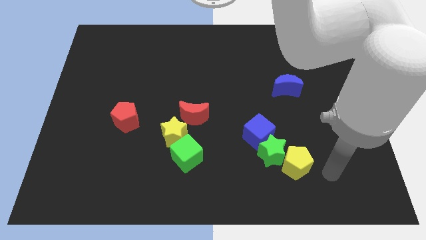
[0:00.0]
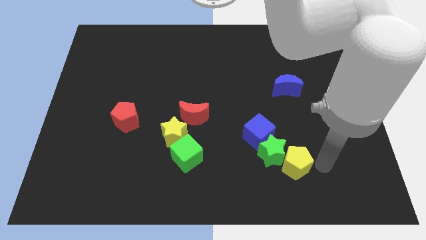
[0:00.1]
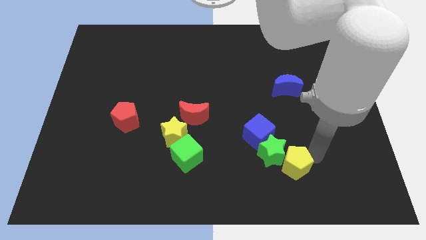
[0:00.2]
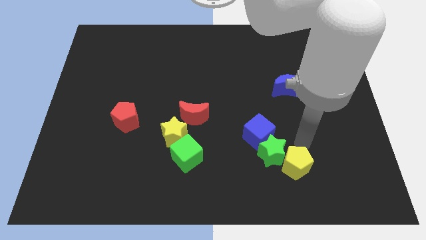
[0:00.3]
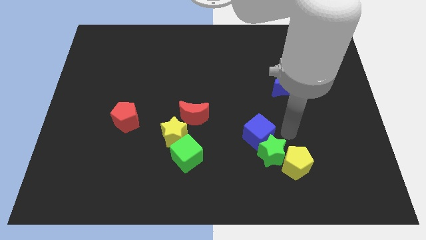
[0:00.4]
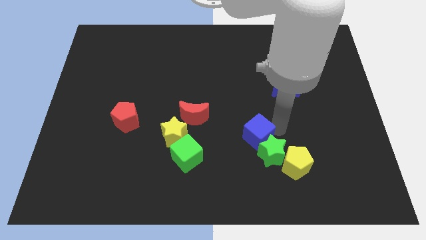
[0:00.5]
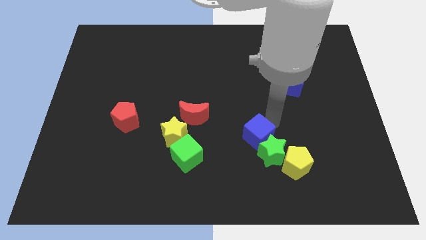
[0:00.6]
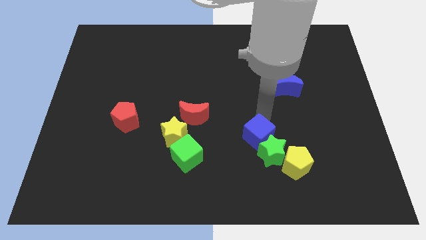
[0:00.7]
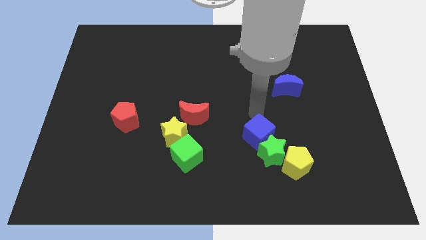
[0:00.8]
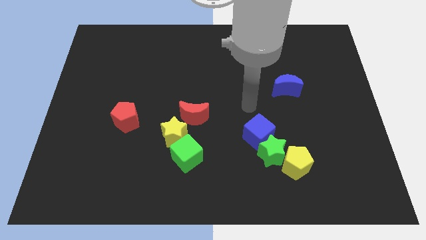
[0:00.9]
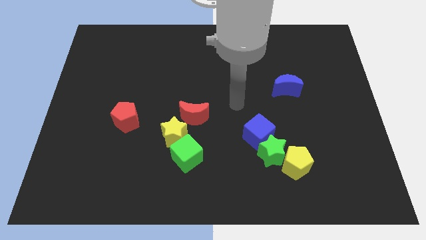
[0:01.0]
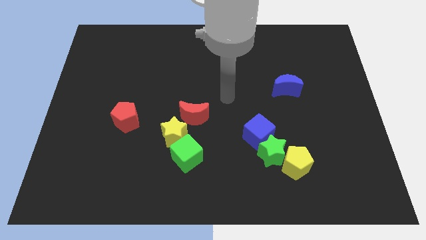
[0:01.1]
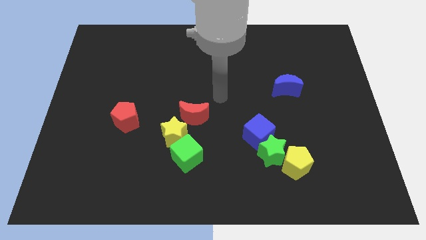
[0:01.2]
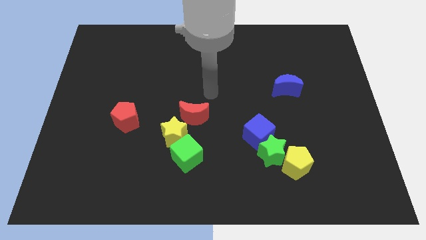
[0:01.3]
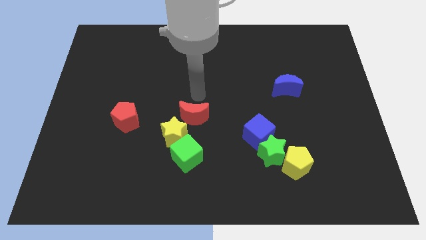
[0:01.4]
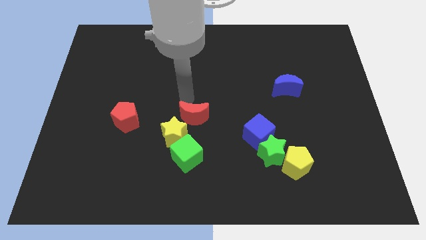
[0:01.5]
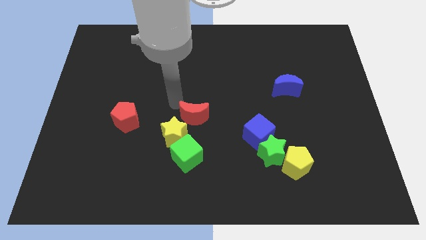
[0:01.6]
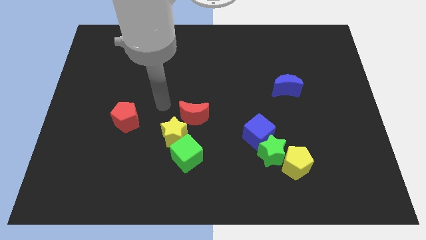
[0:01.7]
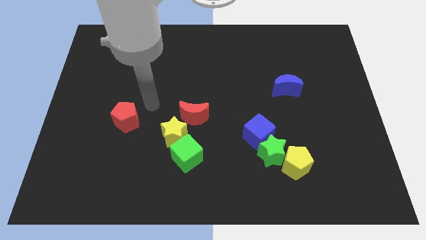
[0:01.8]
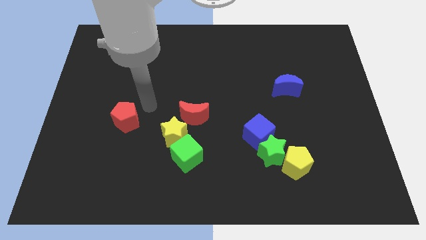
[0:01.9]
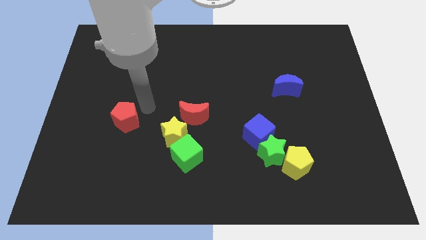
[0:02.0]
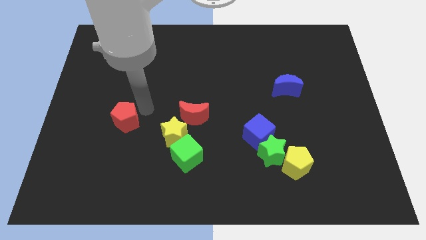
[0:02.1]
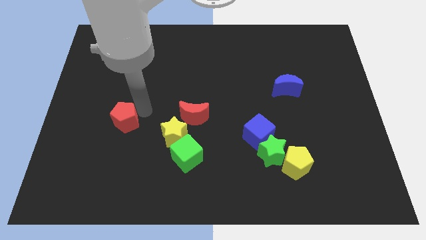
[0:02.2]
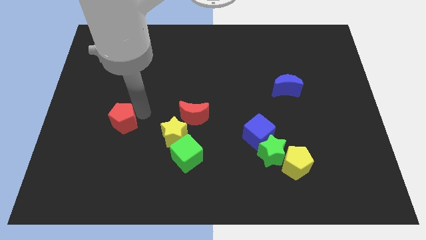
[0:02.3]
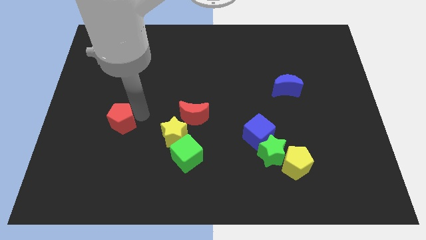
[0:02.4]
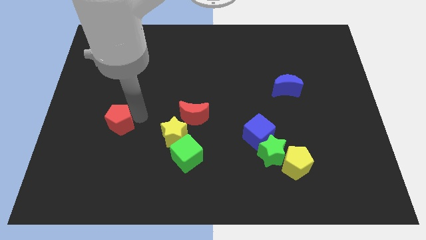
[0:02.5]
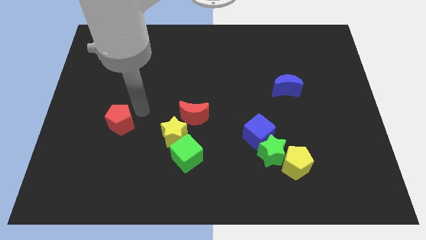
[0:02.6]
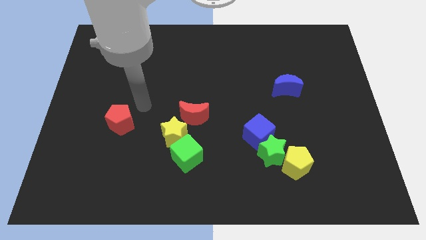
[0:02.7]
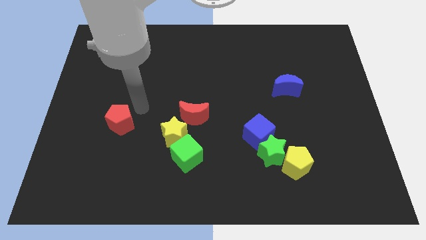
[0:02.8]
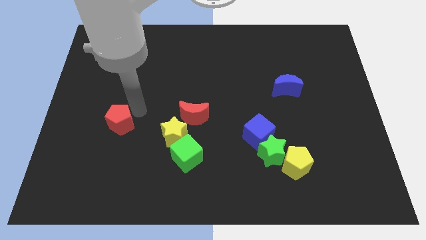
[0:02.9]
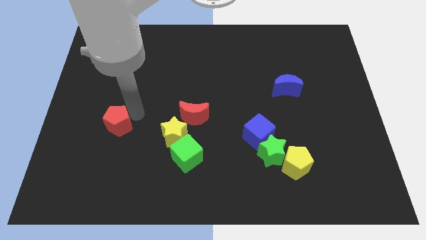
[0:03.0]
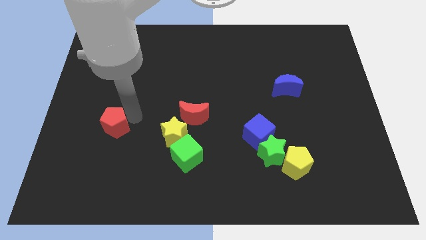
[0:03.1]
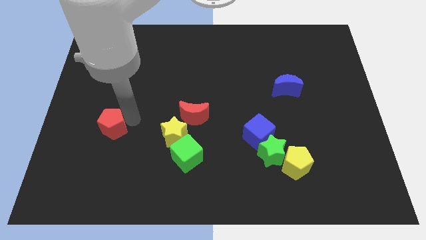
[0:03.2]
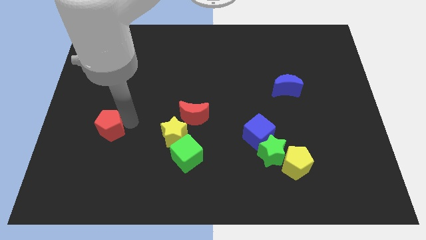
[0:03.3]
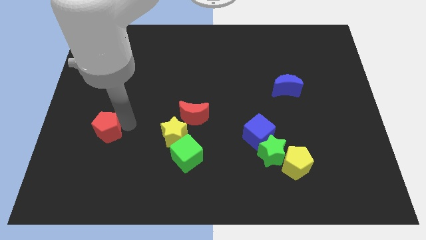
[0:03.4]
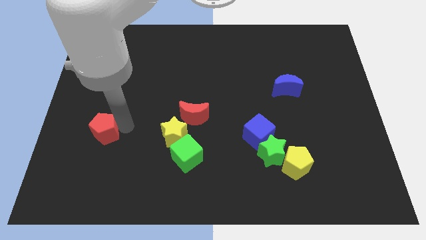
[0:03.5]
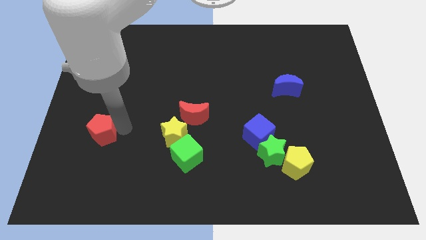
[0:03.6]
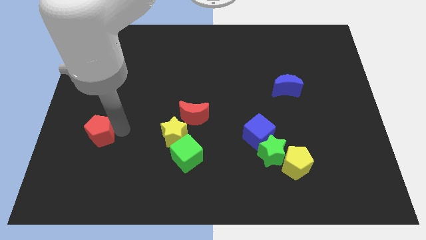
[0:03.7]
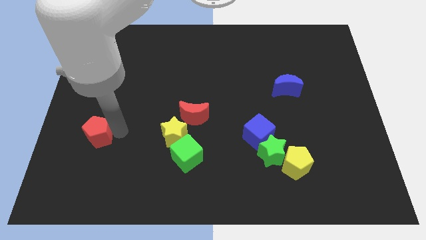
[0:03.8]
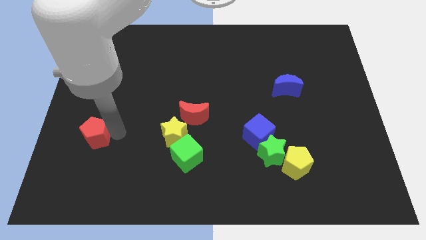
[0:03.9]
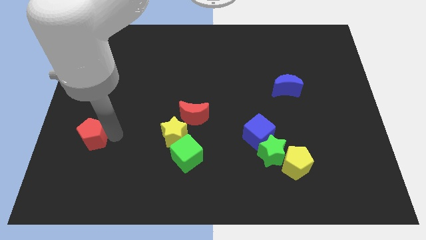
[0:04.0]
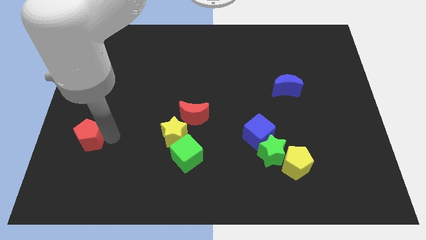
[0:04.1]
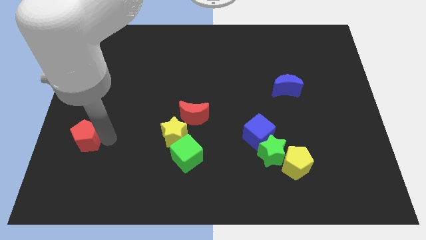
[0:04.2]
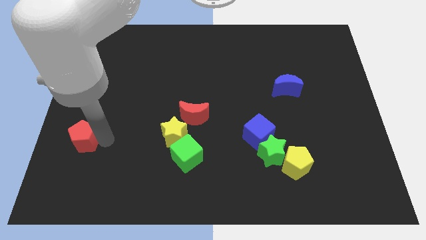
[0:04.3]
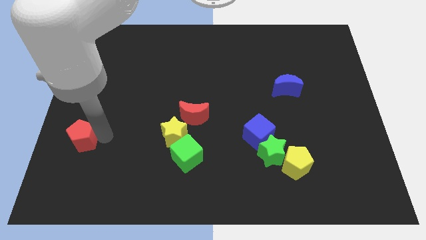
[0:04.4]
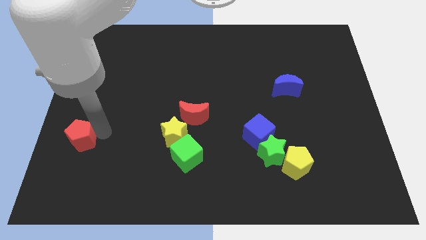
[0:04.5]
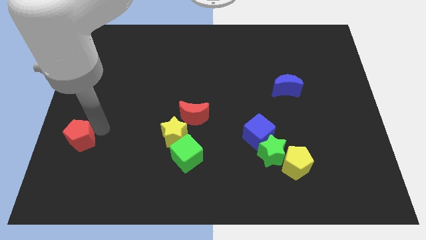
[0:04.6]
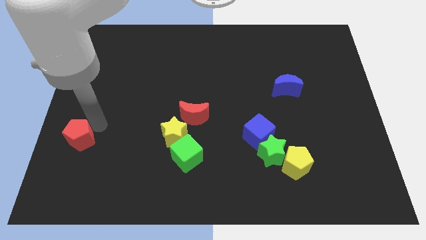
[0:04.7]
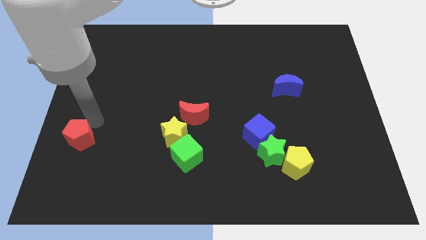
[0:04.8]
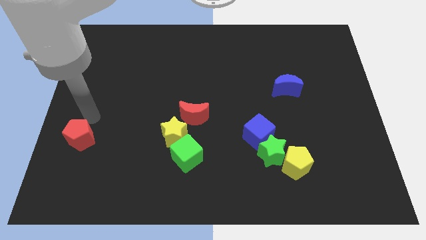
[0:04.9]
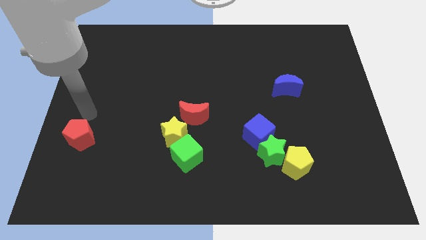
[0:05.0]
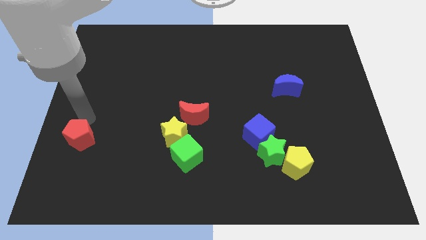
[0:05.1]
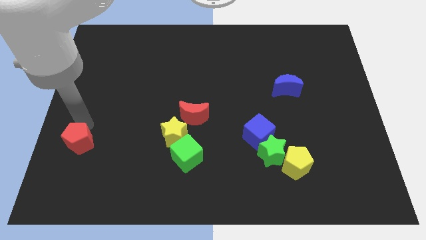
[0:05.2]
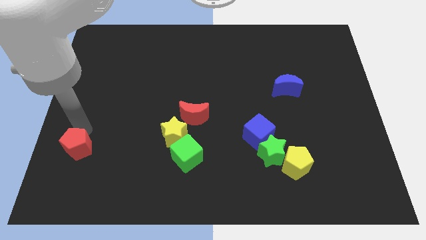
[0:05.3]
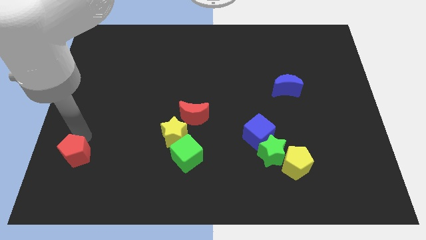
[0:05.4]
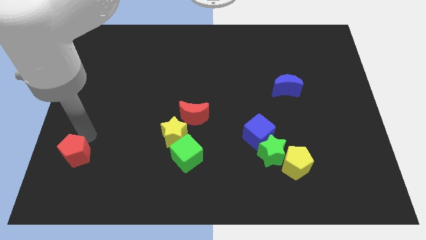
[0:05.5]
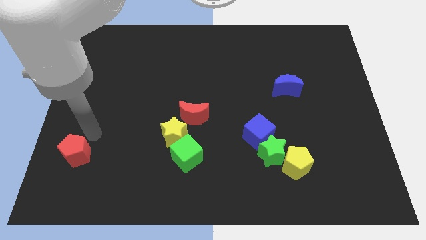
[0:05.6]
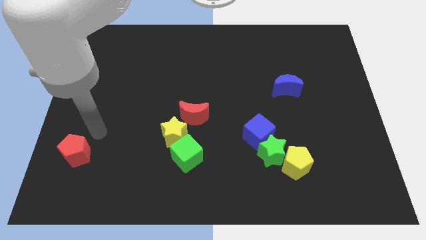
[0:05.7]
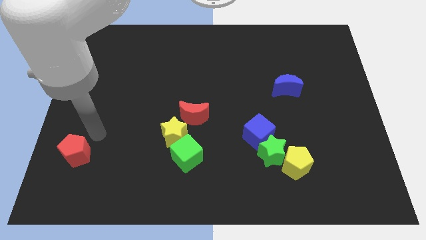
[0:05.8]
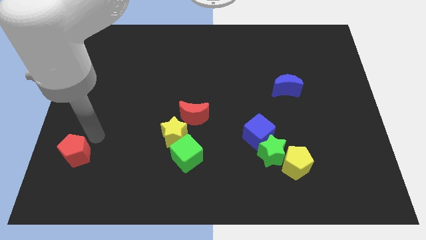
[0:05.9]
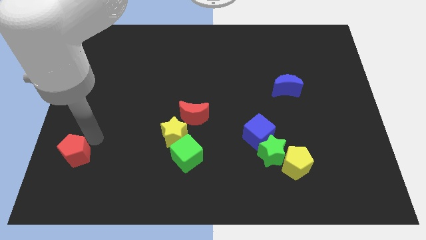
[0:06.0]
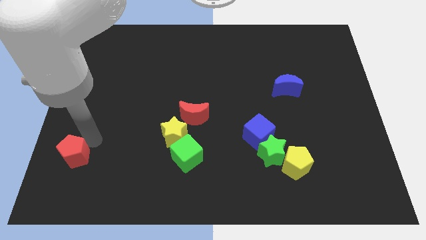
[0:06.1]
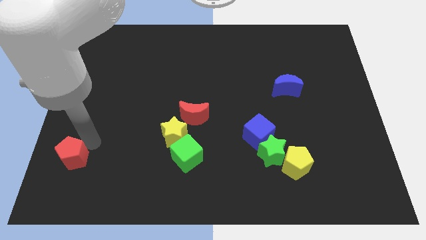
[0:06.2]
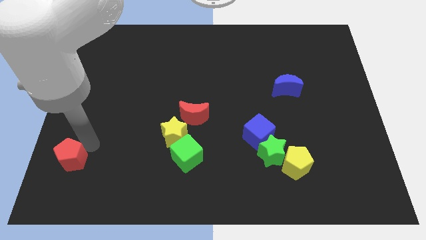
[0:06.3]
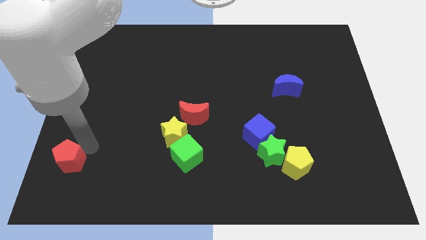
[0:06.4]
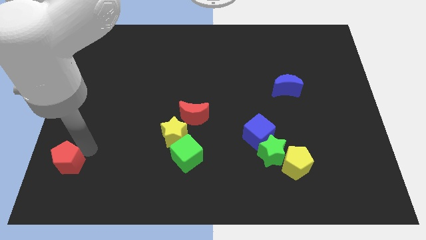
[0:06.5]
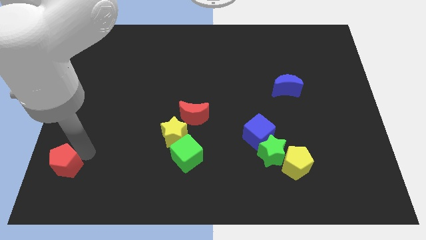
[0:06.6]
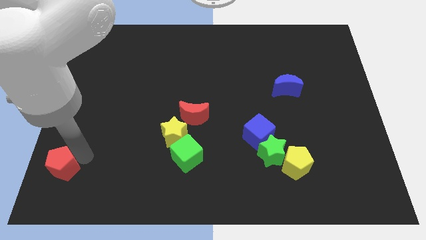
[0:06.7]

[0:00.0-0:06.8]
push the red pentagon to the bottom left of the board

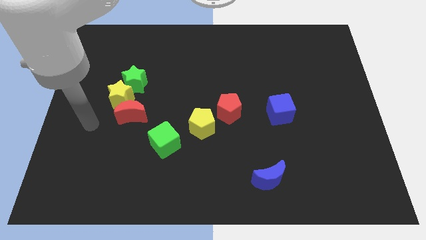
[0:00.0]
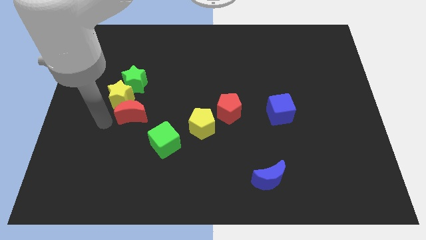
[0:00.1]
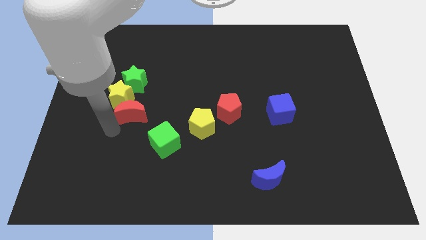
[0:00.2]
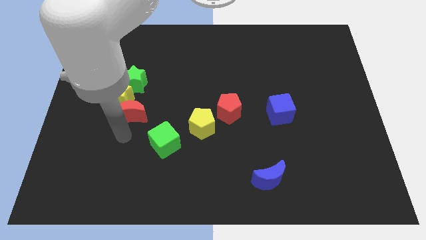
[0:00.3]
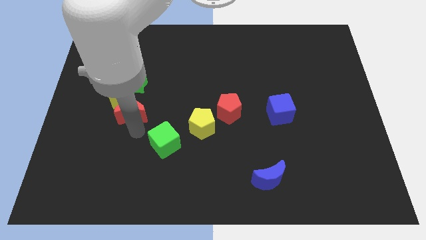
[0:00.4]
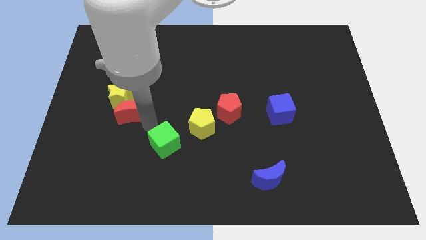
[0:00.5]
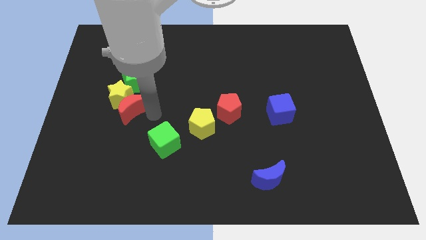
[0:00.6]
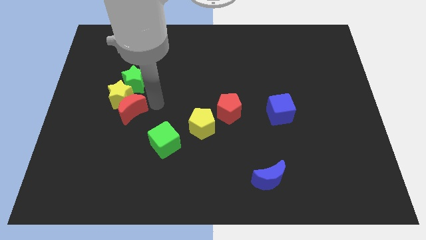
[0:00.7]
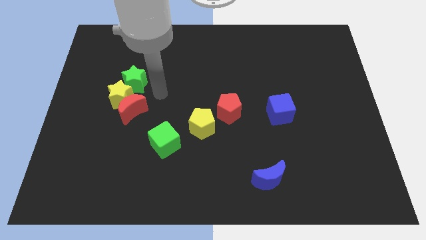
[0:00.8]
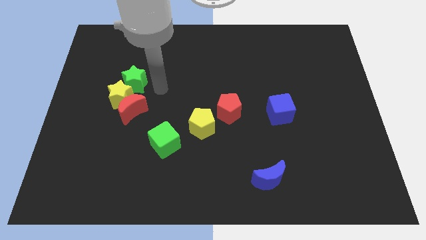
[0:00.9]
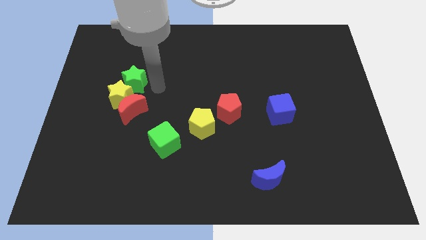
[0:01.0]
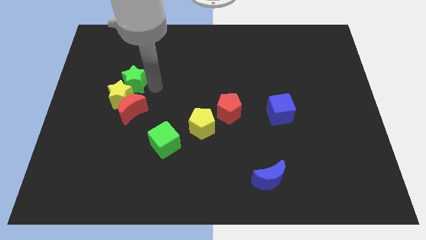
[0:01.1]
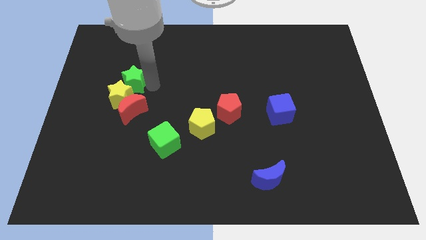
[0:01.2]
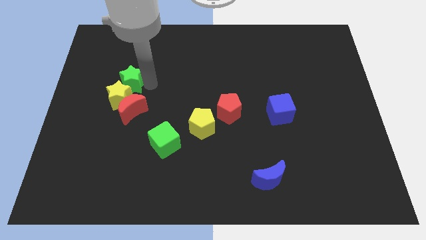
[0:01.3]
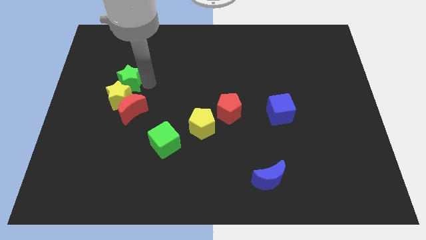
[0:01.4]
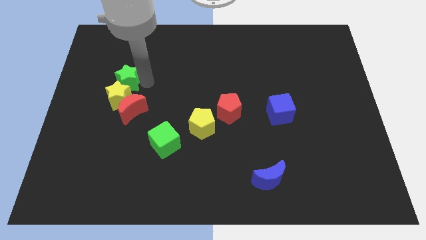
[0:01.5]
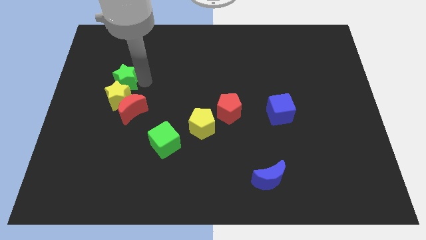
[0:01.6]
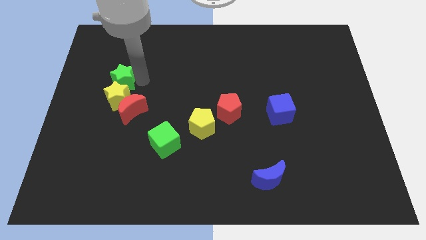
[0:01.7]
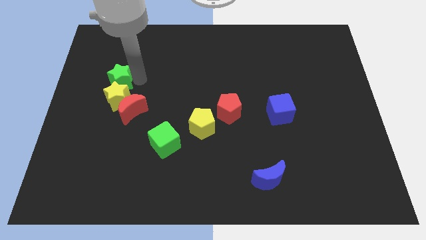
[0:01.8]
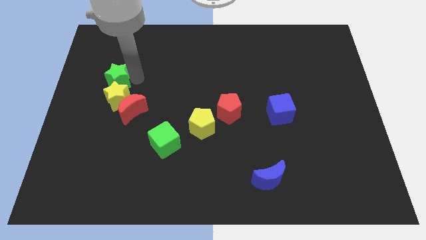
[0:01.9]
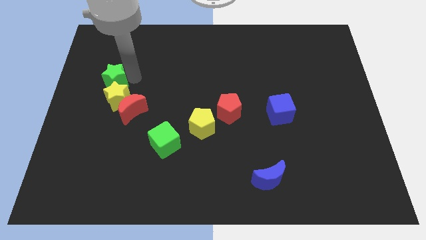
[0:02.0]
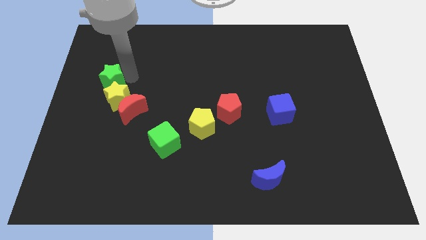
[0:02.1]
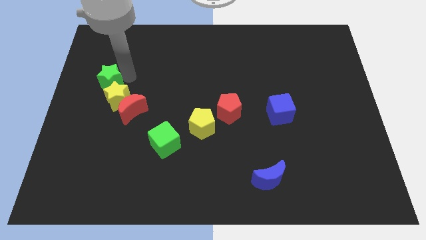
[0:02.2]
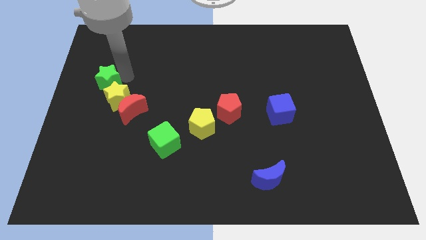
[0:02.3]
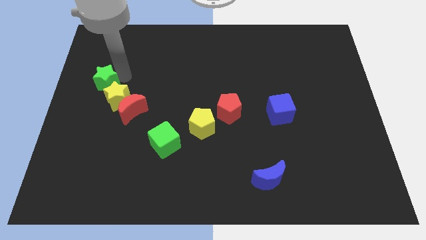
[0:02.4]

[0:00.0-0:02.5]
push the green star to the left side of the board
